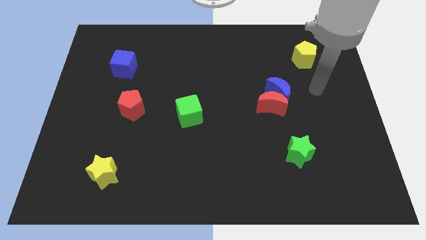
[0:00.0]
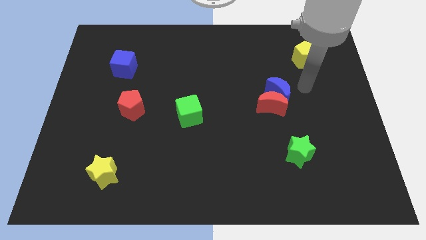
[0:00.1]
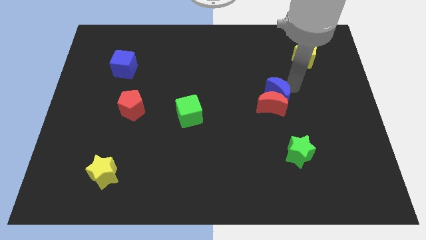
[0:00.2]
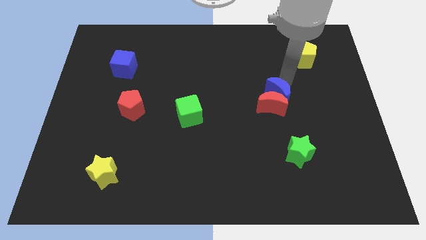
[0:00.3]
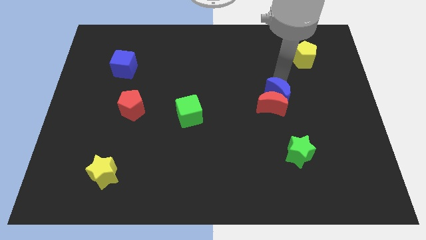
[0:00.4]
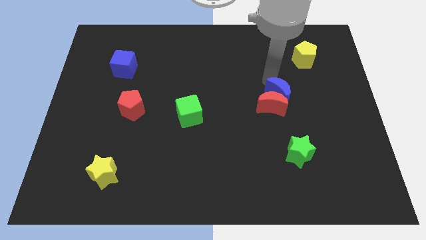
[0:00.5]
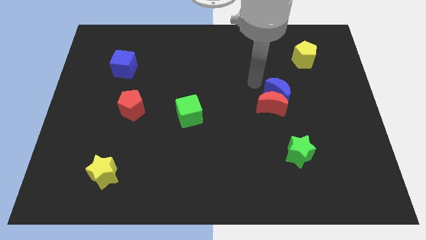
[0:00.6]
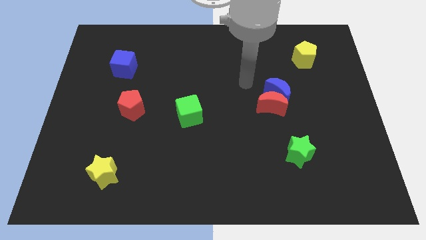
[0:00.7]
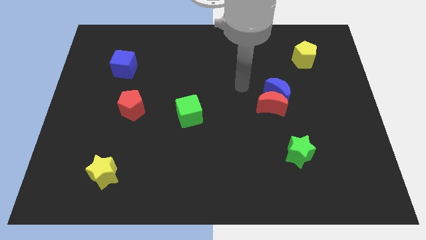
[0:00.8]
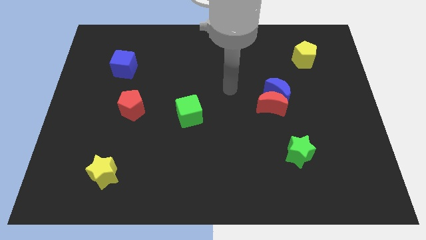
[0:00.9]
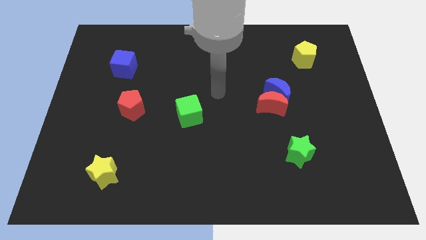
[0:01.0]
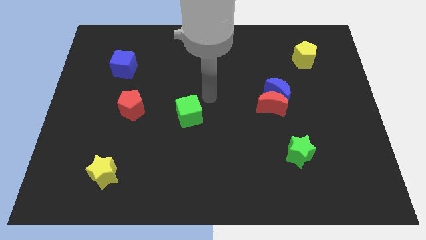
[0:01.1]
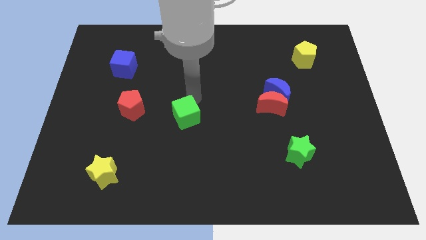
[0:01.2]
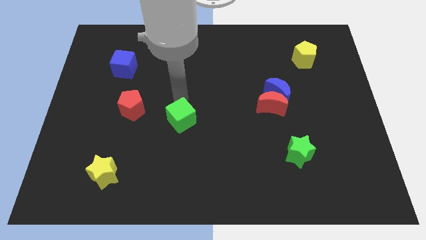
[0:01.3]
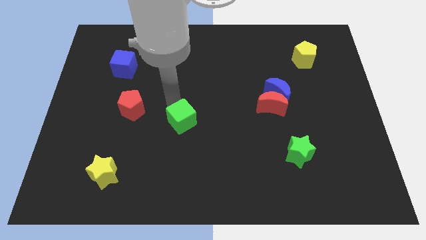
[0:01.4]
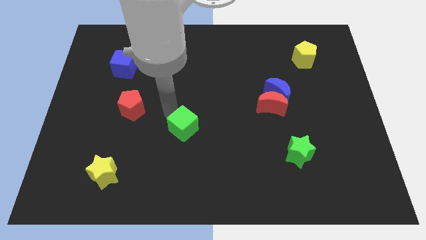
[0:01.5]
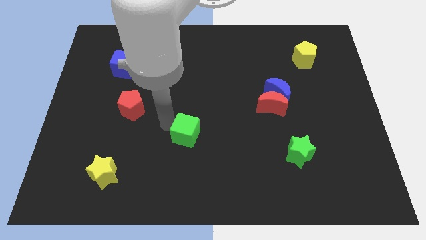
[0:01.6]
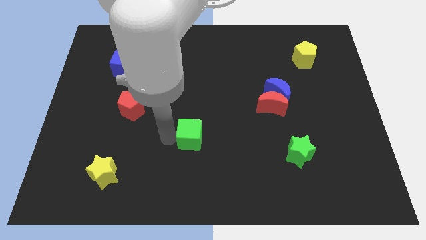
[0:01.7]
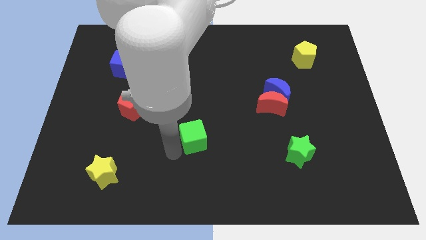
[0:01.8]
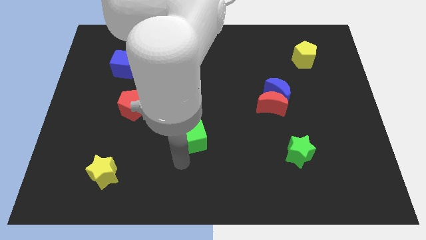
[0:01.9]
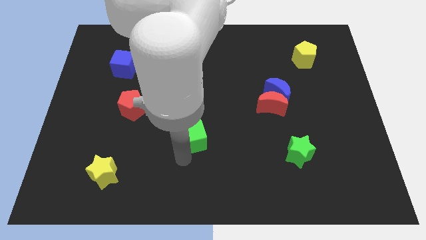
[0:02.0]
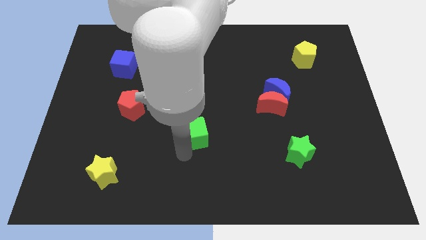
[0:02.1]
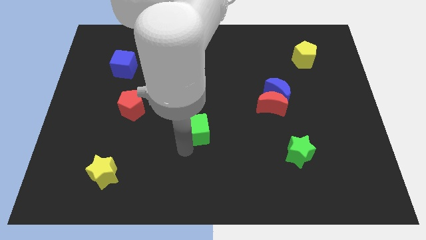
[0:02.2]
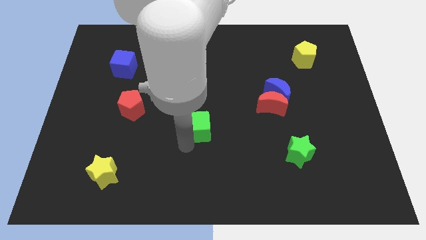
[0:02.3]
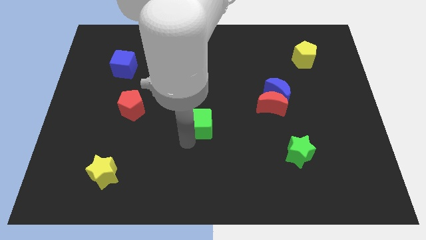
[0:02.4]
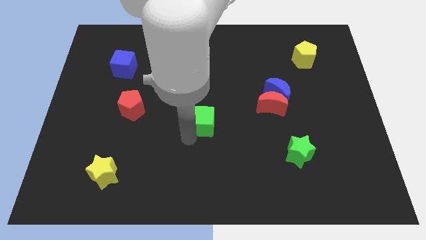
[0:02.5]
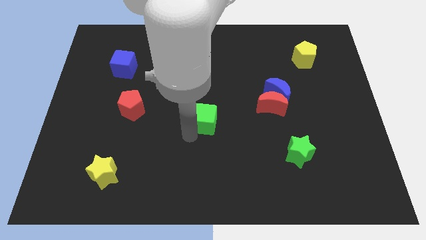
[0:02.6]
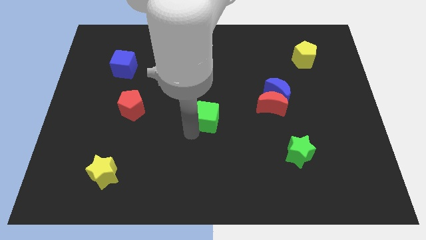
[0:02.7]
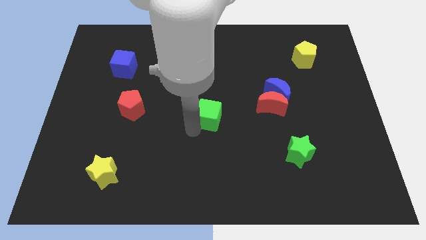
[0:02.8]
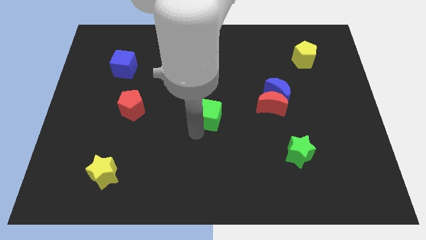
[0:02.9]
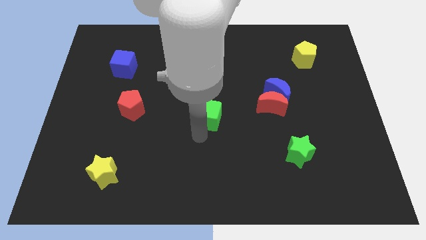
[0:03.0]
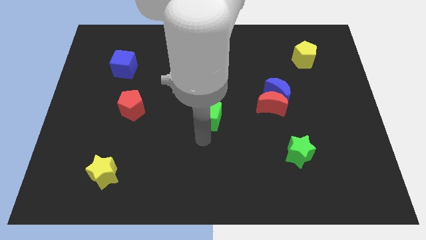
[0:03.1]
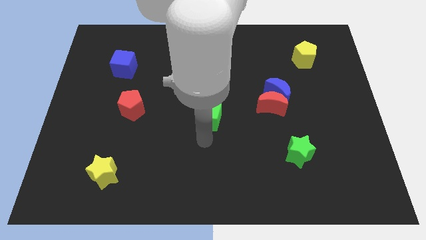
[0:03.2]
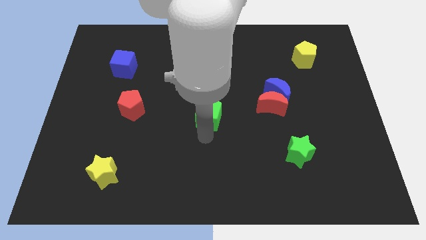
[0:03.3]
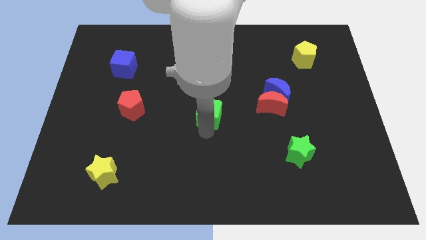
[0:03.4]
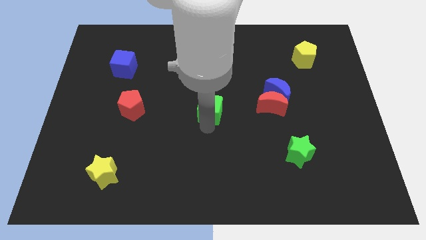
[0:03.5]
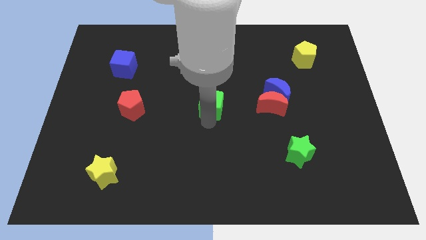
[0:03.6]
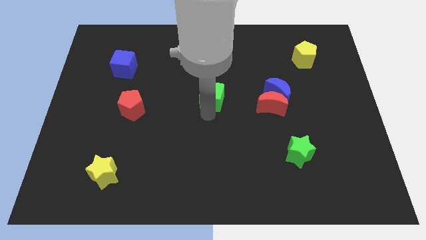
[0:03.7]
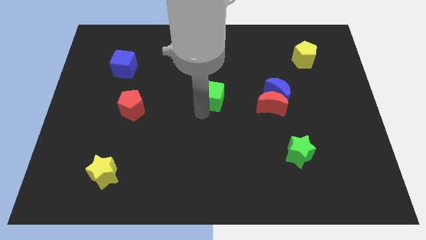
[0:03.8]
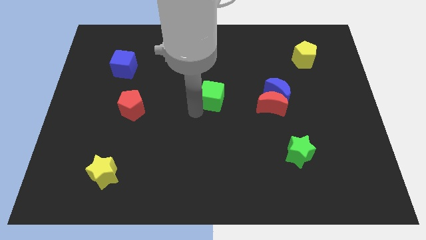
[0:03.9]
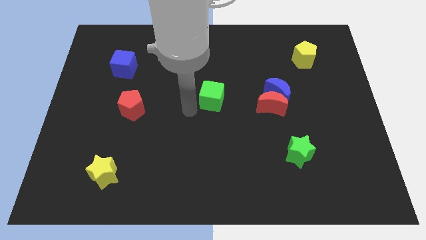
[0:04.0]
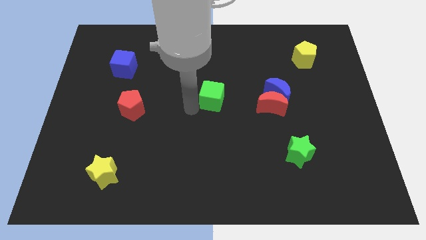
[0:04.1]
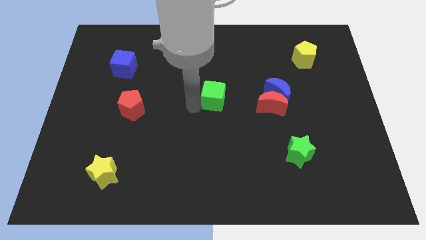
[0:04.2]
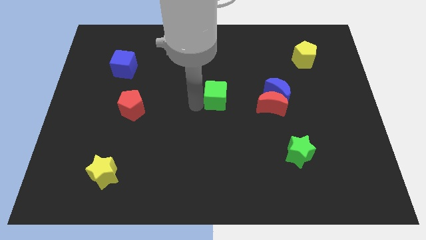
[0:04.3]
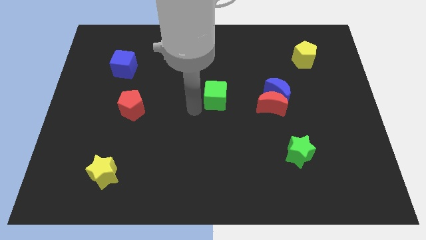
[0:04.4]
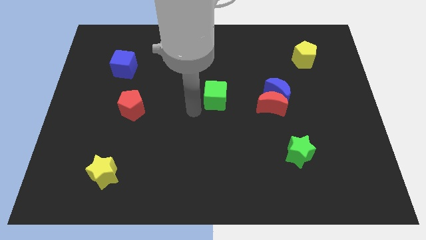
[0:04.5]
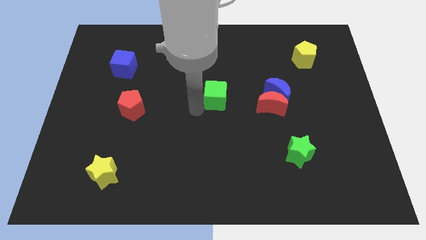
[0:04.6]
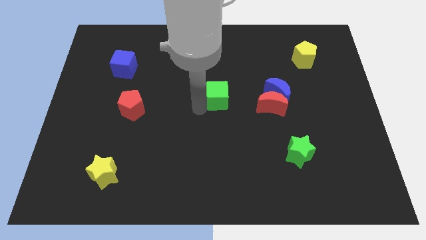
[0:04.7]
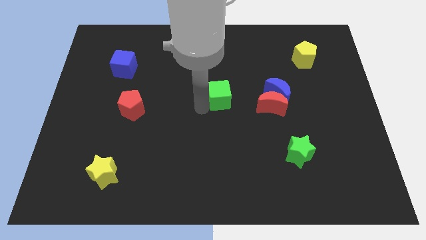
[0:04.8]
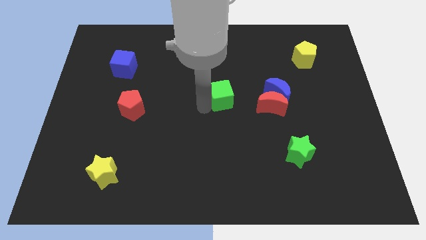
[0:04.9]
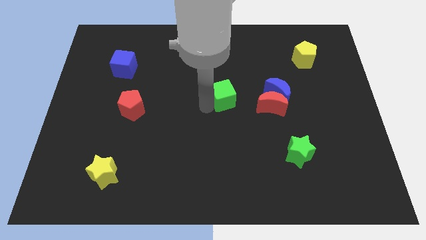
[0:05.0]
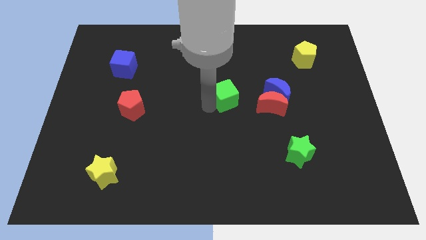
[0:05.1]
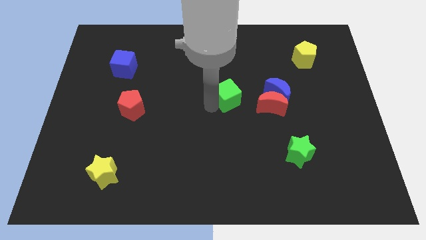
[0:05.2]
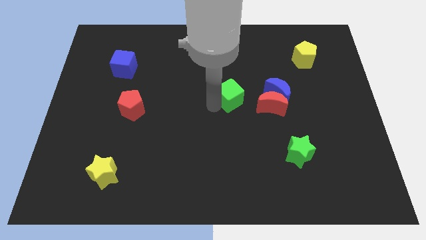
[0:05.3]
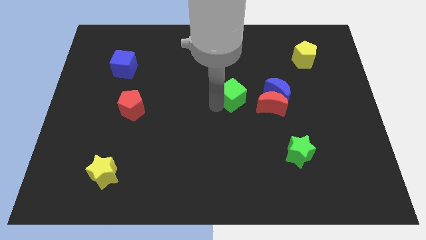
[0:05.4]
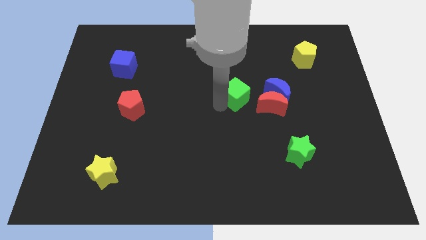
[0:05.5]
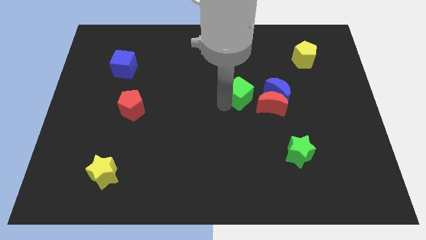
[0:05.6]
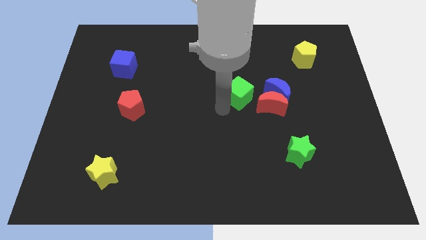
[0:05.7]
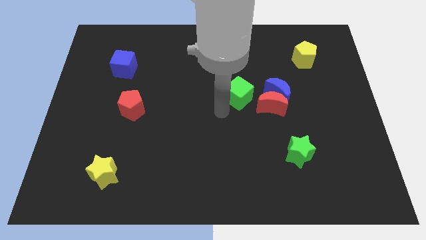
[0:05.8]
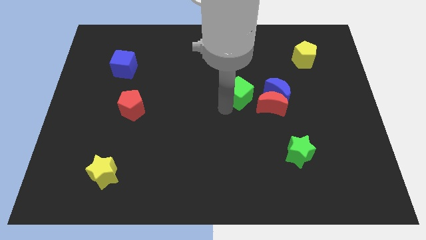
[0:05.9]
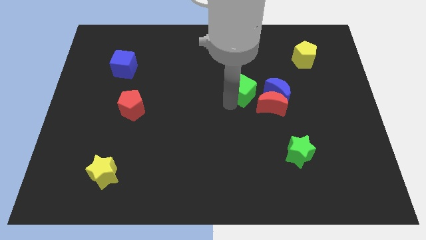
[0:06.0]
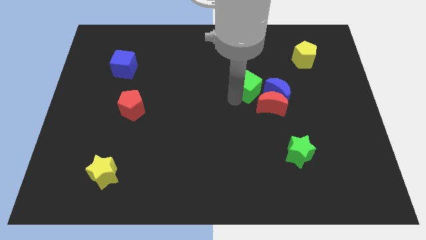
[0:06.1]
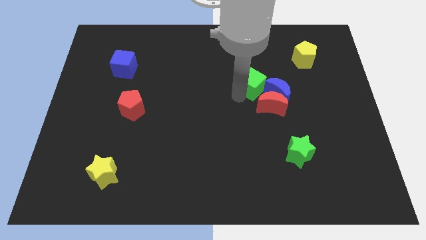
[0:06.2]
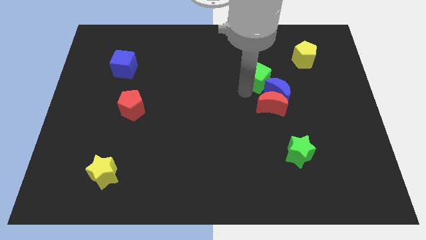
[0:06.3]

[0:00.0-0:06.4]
move the green cube above the blue moon

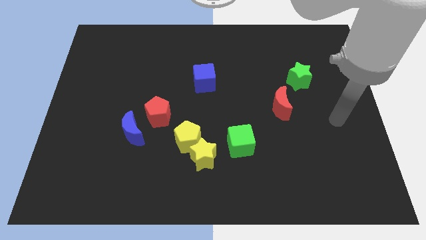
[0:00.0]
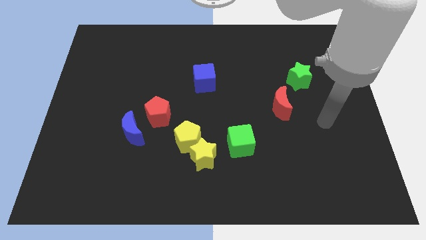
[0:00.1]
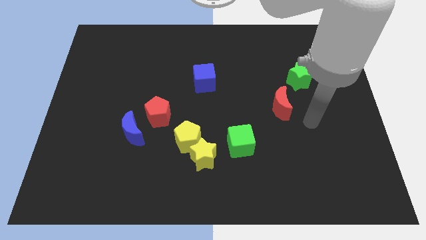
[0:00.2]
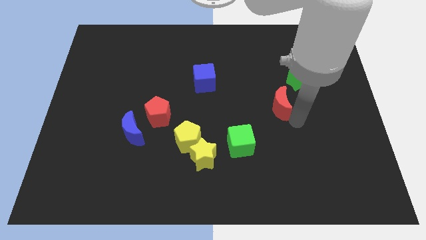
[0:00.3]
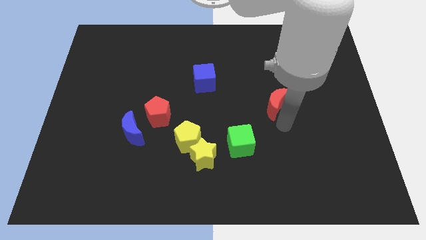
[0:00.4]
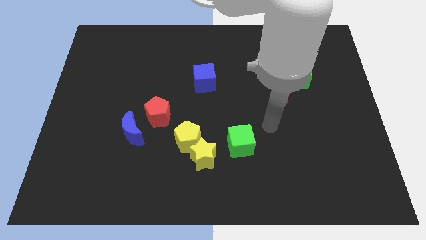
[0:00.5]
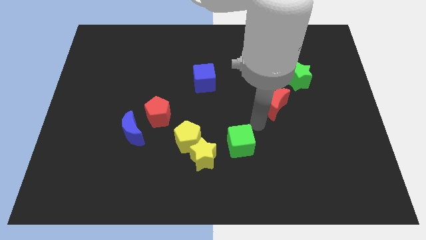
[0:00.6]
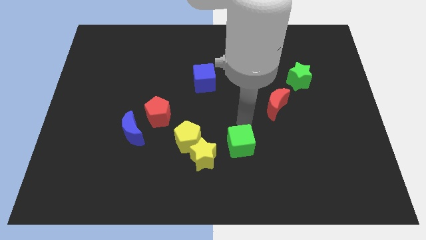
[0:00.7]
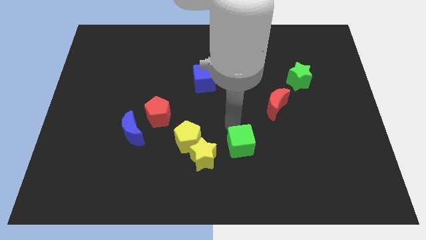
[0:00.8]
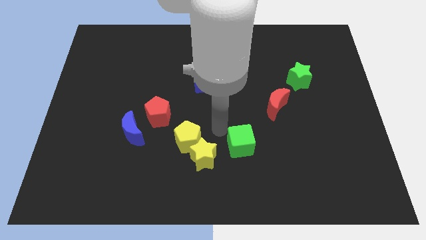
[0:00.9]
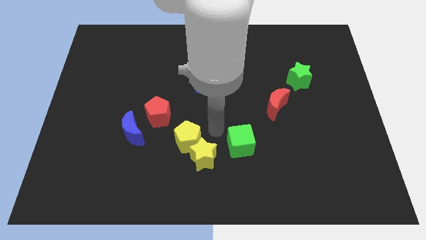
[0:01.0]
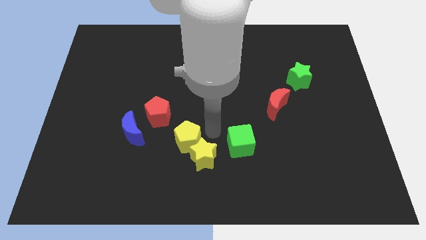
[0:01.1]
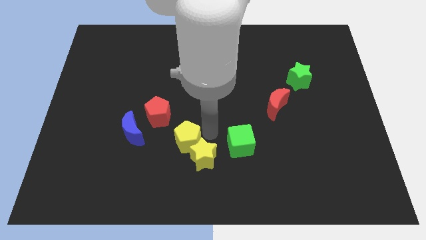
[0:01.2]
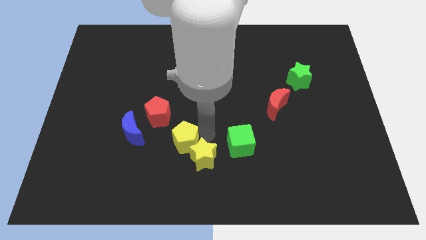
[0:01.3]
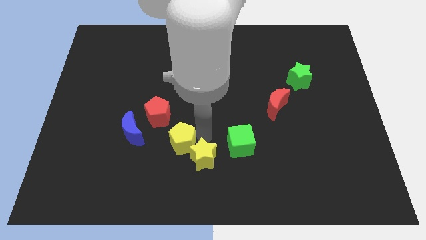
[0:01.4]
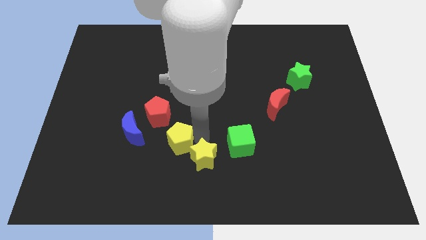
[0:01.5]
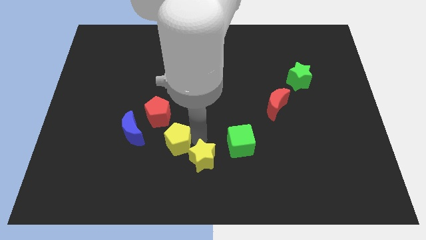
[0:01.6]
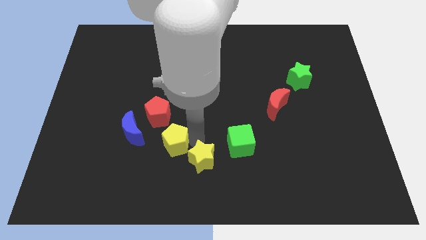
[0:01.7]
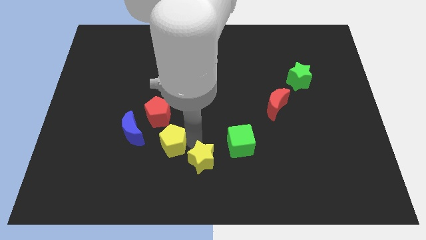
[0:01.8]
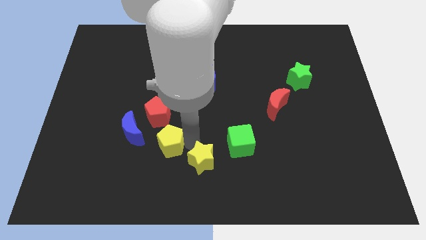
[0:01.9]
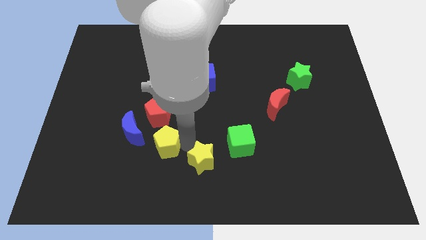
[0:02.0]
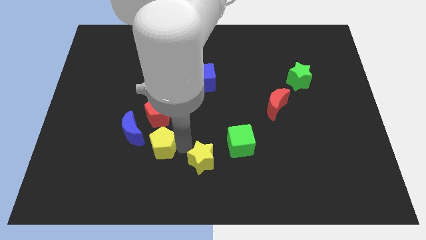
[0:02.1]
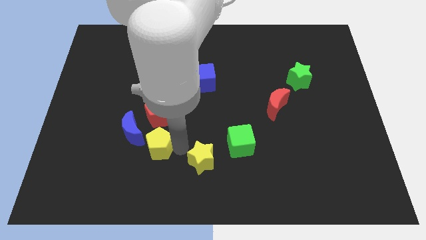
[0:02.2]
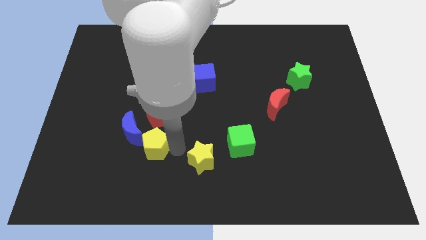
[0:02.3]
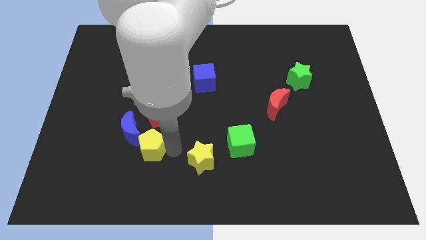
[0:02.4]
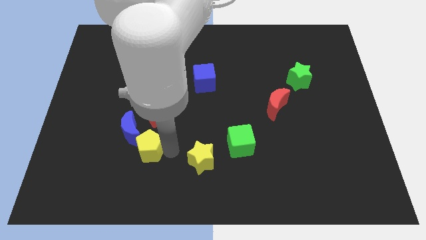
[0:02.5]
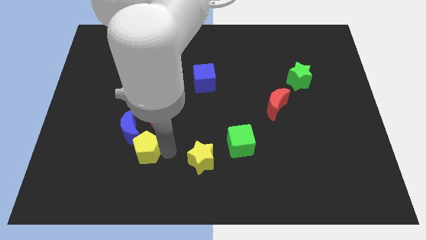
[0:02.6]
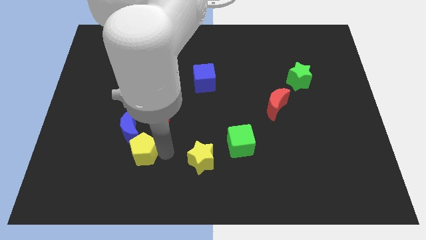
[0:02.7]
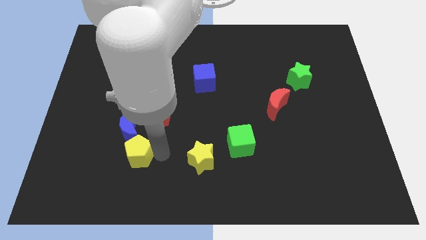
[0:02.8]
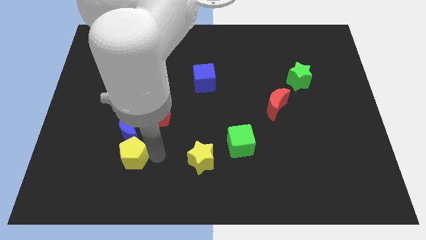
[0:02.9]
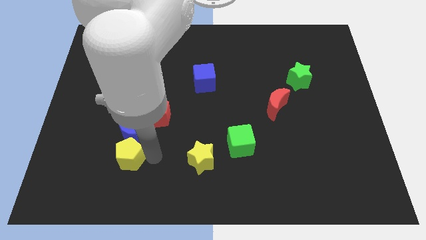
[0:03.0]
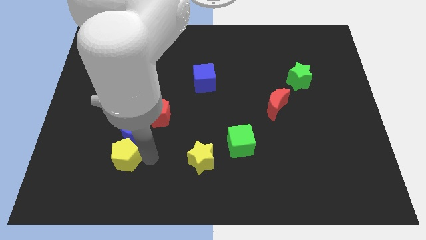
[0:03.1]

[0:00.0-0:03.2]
move the yellow pentagon diagonally down and to the left of the blue moon
